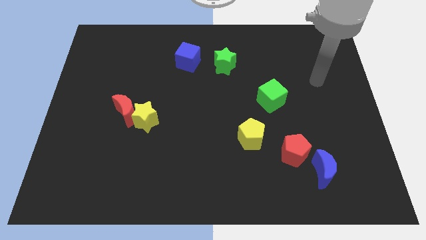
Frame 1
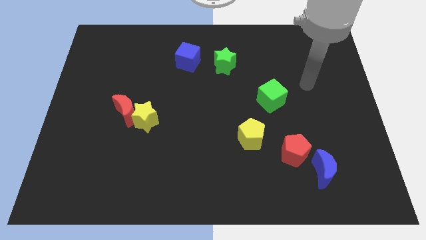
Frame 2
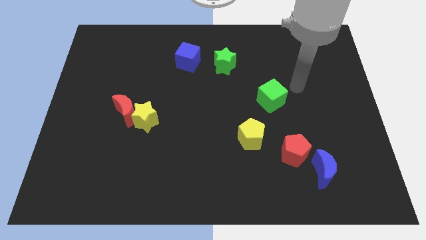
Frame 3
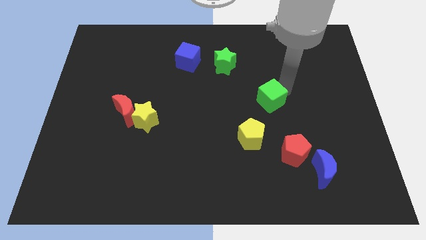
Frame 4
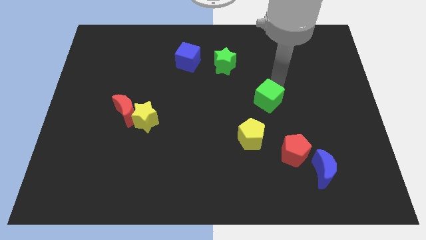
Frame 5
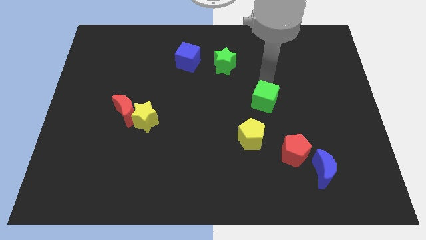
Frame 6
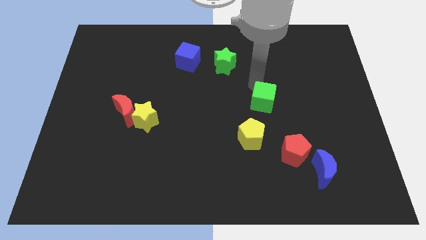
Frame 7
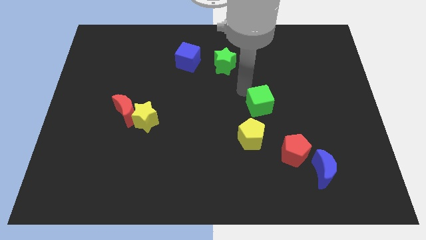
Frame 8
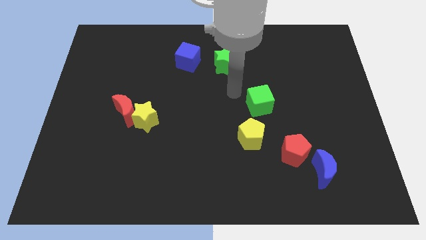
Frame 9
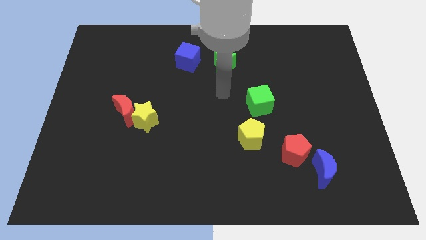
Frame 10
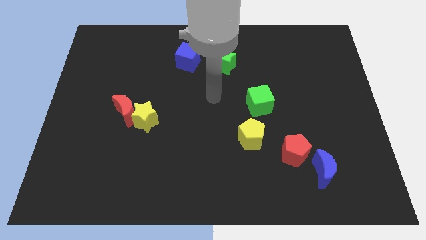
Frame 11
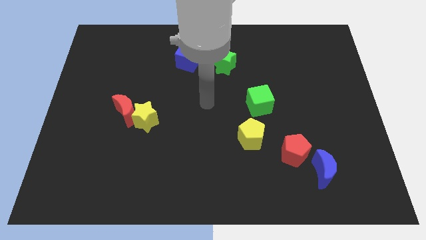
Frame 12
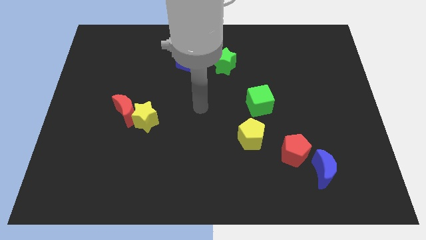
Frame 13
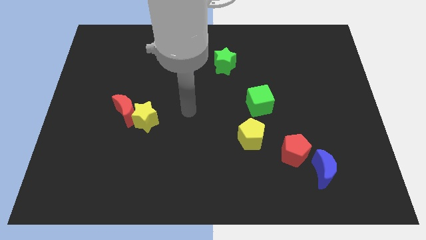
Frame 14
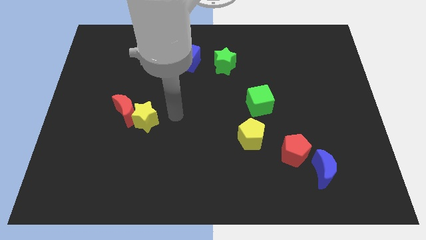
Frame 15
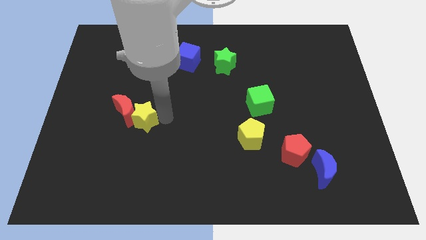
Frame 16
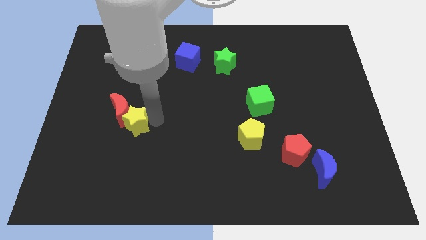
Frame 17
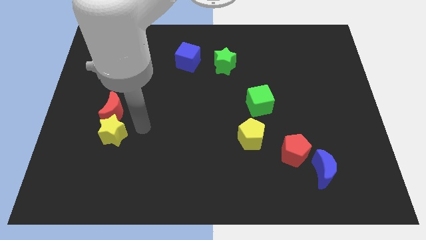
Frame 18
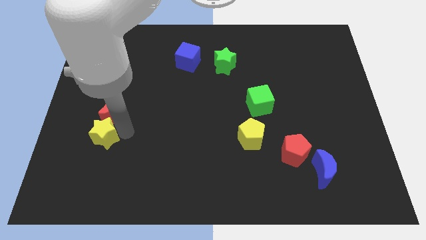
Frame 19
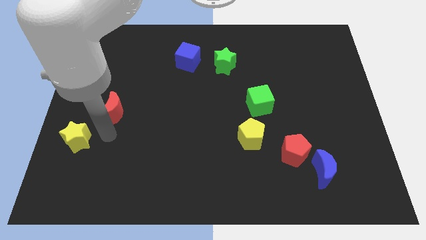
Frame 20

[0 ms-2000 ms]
move the red moon away from the yellow star

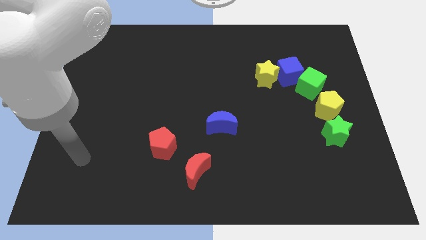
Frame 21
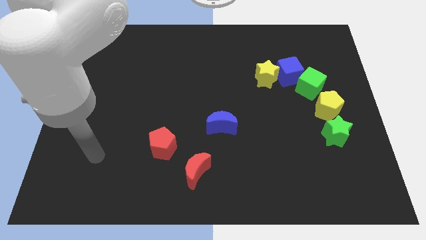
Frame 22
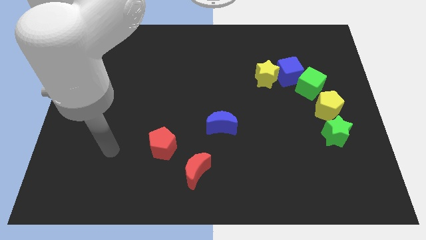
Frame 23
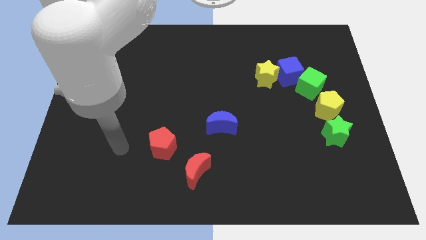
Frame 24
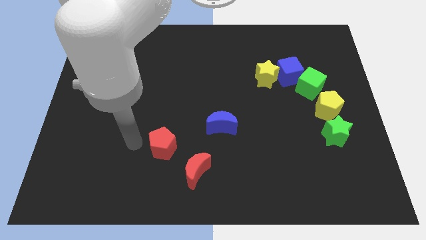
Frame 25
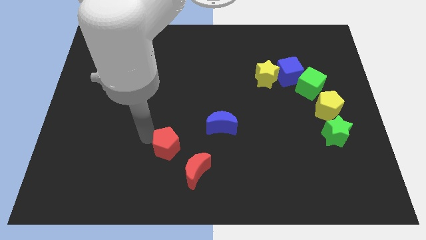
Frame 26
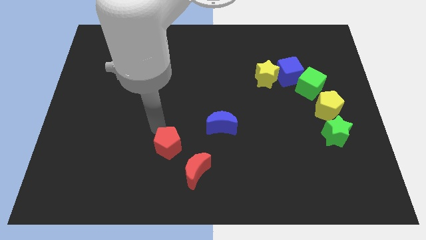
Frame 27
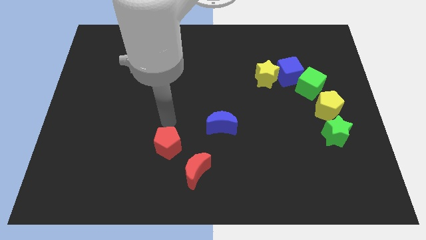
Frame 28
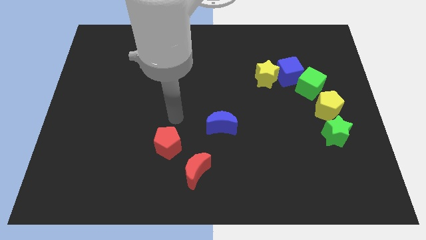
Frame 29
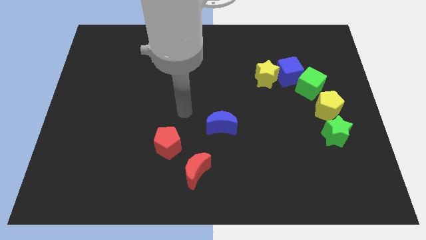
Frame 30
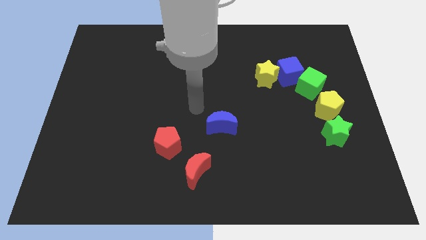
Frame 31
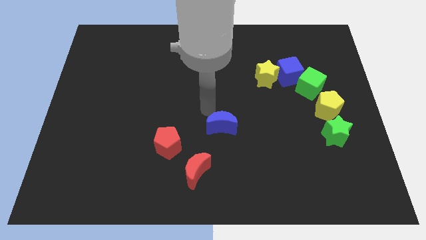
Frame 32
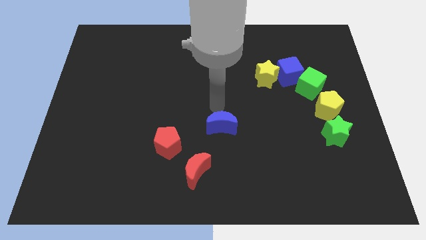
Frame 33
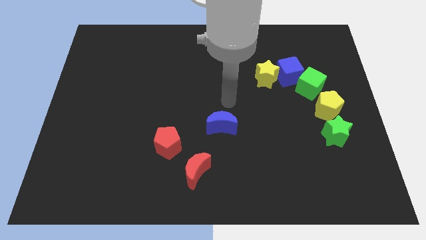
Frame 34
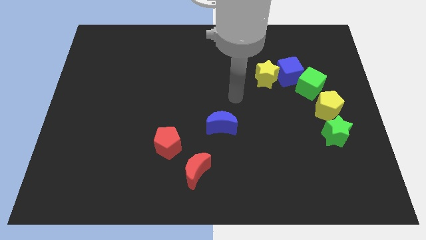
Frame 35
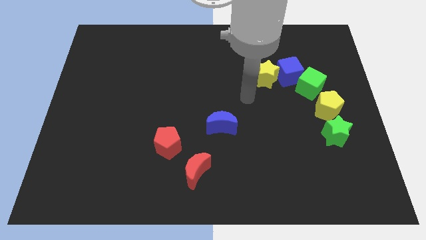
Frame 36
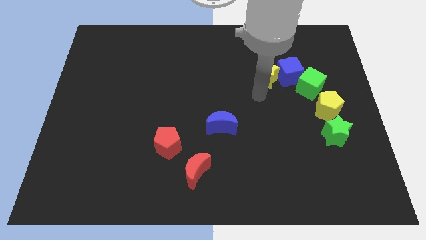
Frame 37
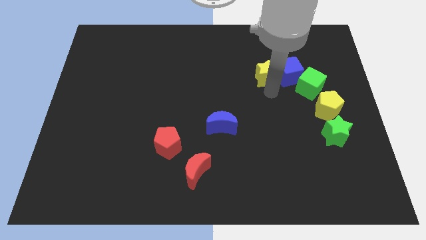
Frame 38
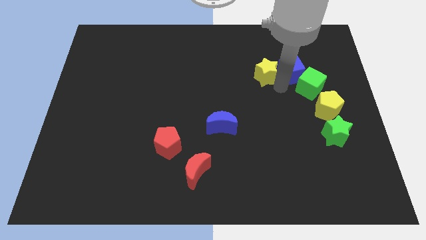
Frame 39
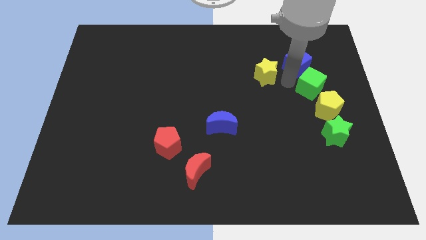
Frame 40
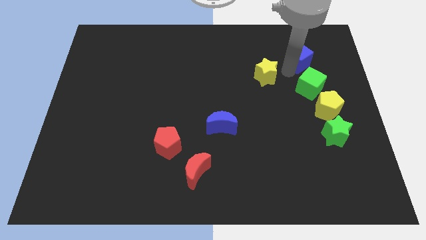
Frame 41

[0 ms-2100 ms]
move the yellow star away from the blue cube

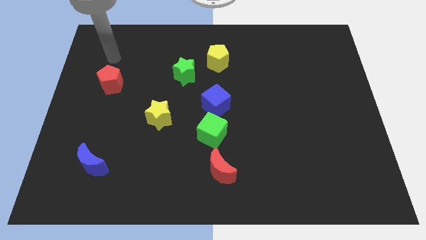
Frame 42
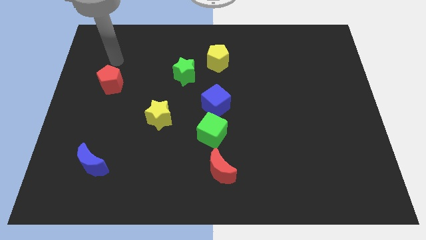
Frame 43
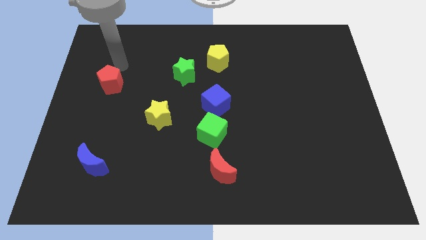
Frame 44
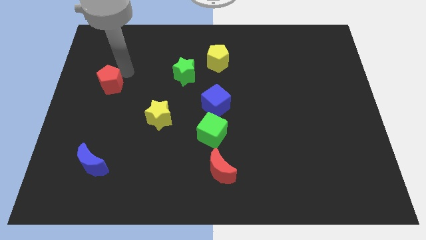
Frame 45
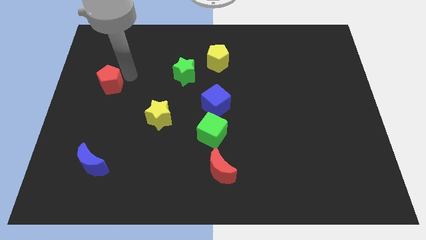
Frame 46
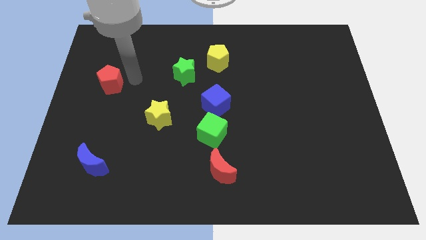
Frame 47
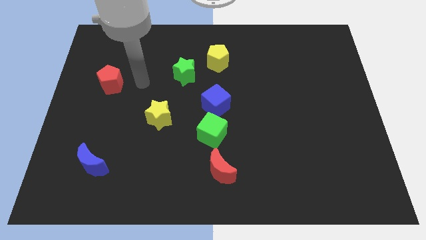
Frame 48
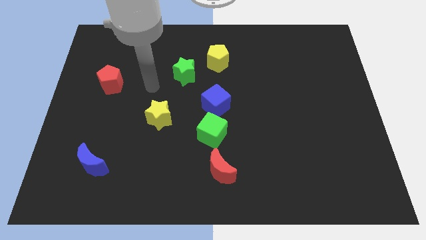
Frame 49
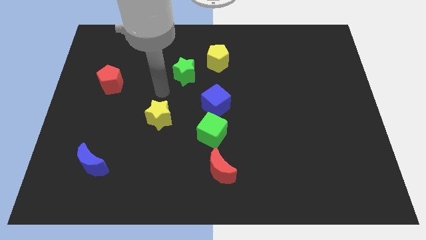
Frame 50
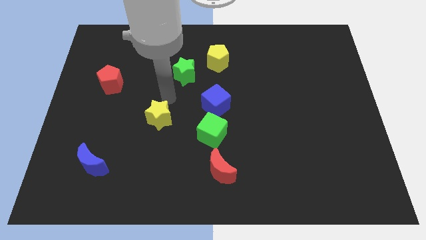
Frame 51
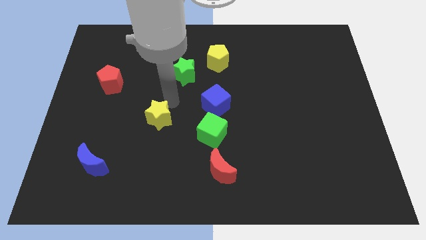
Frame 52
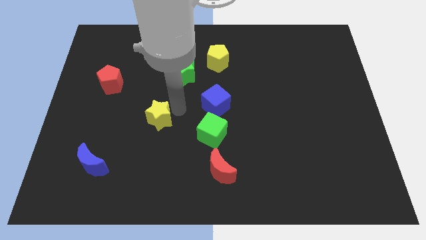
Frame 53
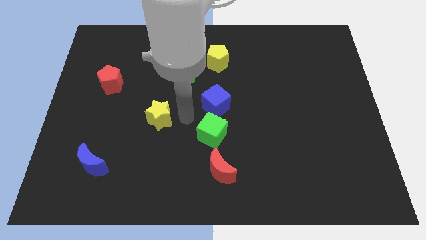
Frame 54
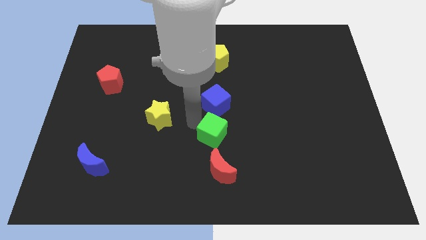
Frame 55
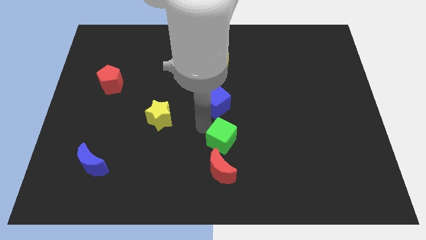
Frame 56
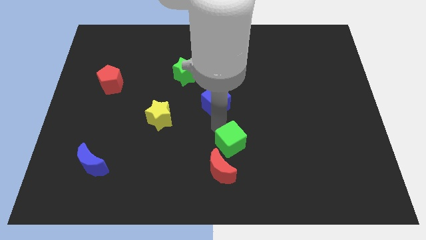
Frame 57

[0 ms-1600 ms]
separate the blue cube from the green cube

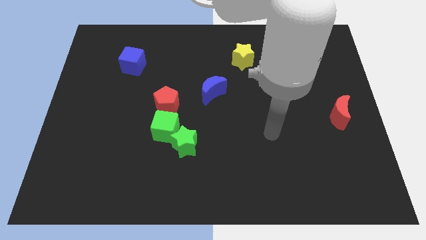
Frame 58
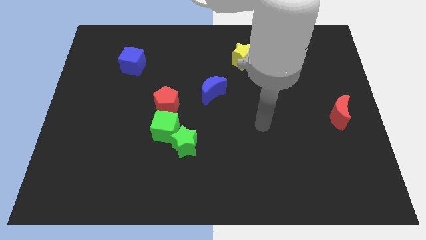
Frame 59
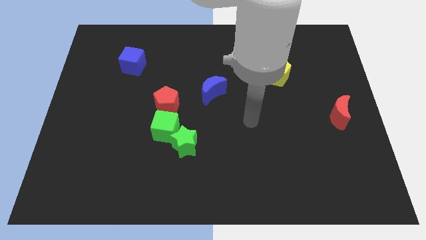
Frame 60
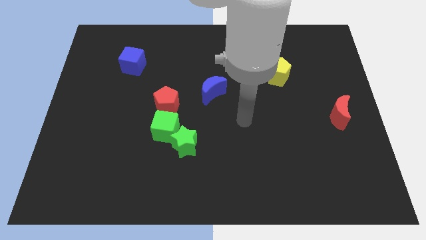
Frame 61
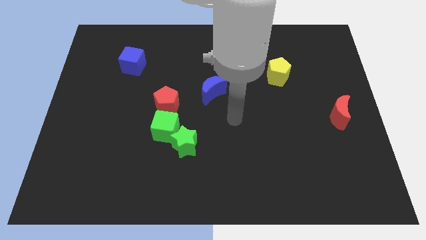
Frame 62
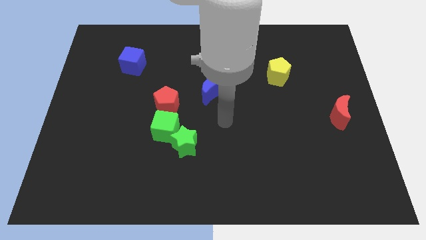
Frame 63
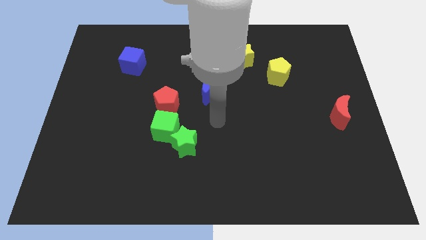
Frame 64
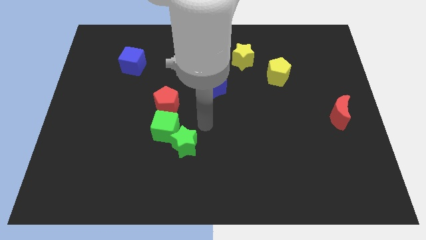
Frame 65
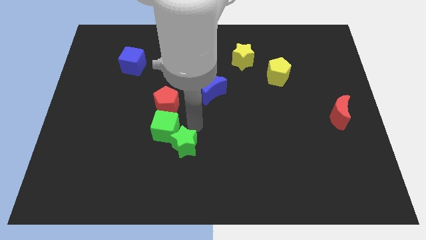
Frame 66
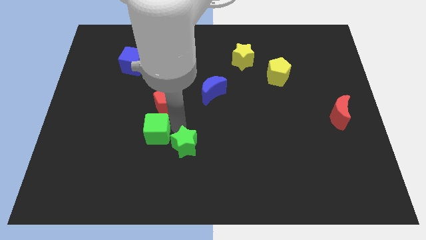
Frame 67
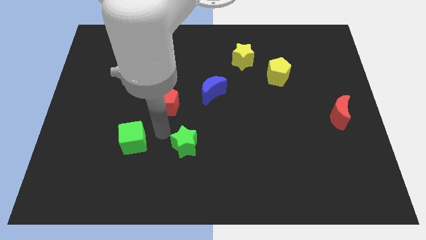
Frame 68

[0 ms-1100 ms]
separate the green star from the green cube

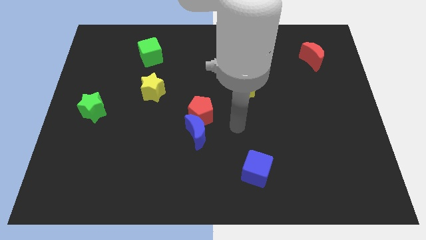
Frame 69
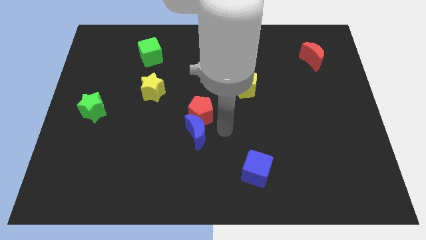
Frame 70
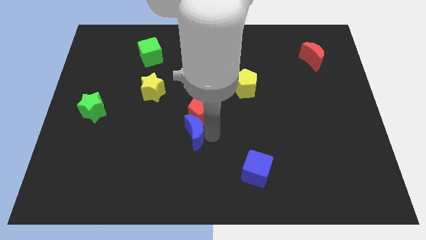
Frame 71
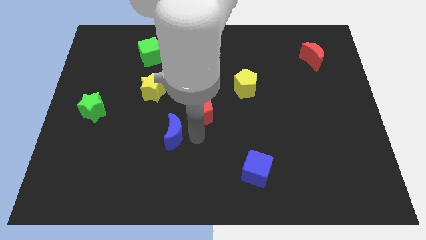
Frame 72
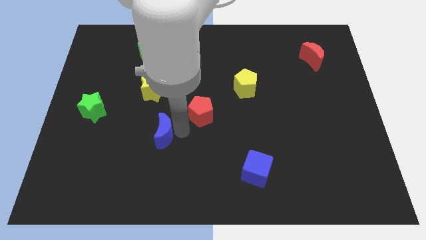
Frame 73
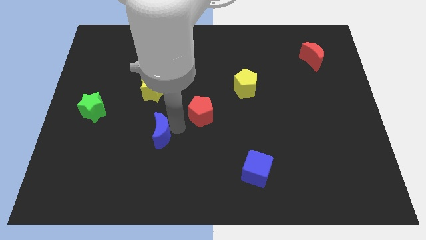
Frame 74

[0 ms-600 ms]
separate the red pentagon from the blue moon

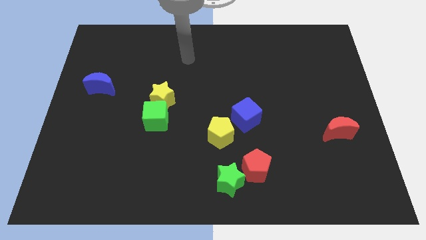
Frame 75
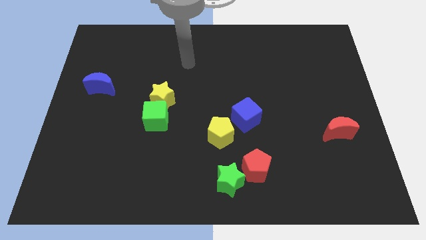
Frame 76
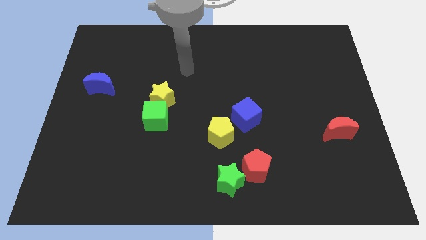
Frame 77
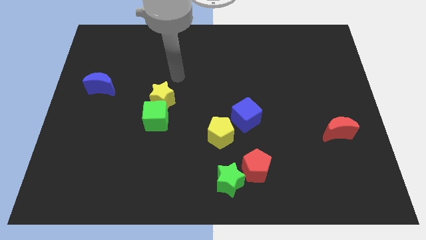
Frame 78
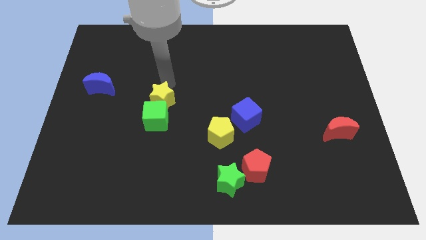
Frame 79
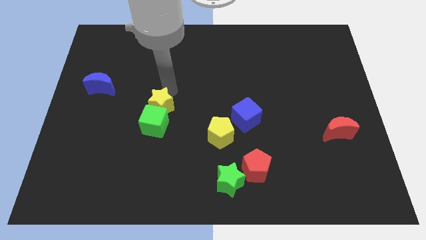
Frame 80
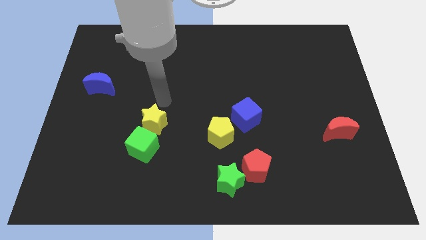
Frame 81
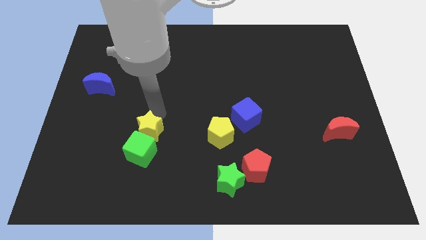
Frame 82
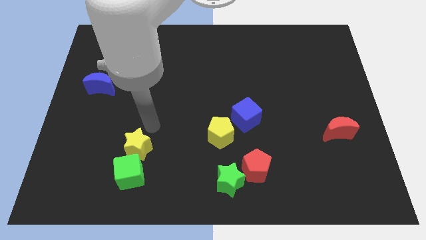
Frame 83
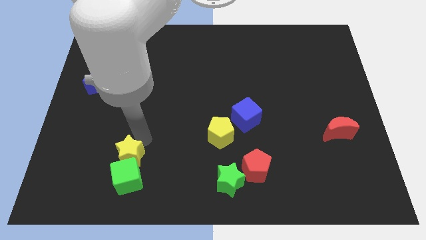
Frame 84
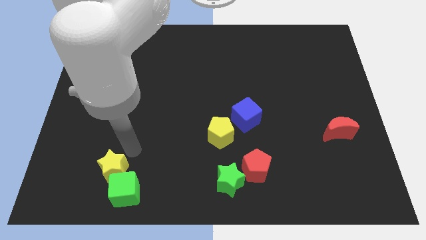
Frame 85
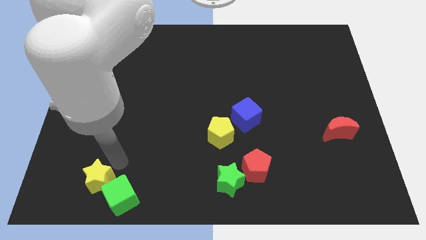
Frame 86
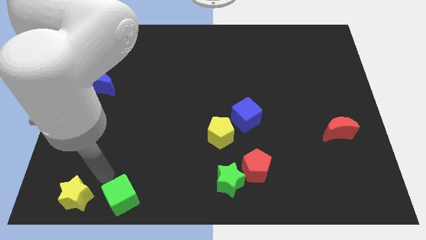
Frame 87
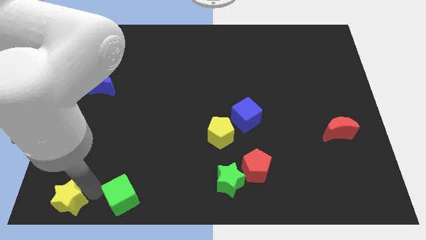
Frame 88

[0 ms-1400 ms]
pull the green cube apart from the yellow star

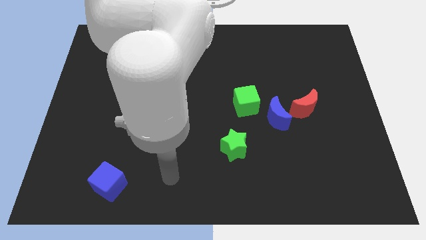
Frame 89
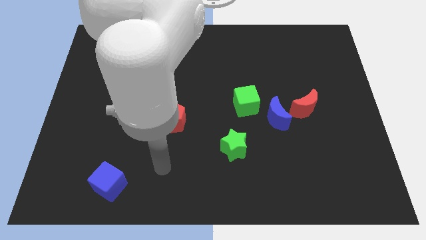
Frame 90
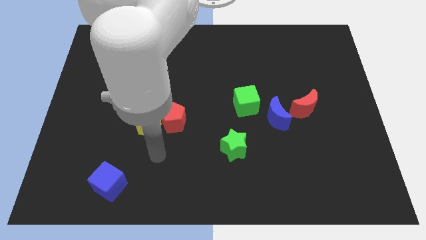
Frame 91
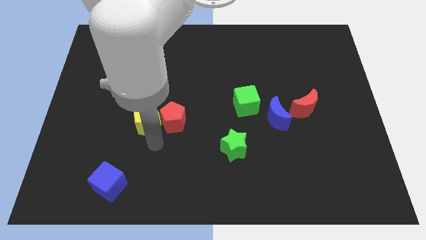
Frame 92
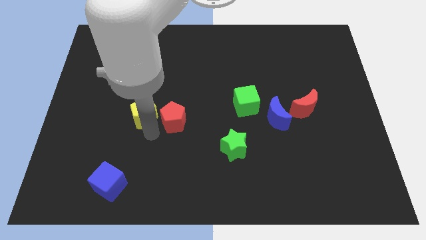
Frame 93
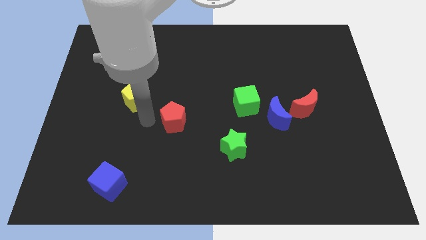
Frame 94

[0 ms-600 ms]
pull the red pentagon apart from the yellow pentagon
